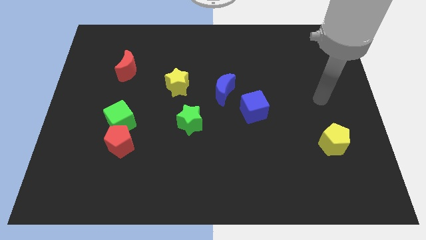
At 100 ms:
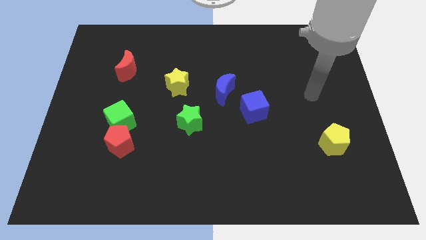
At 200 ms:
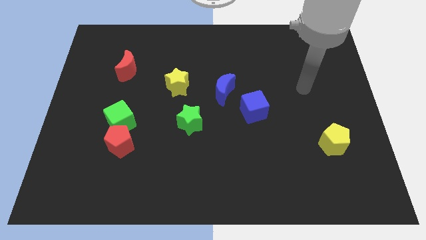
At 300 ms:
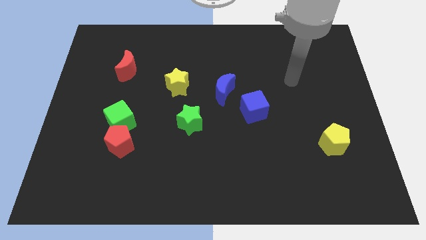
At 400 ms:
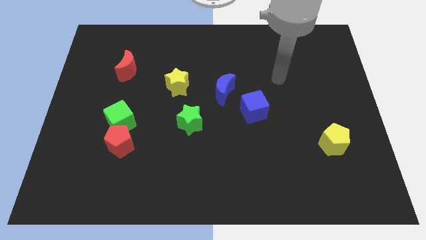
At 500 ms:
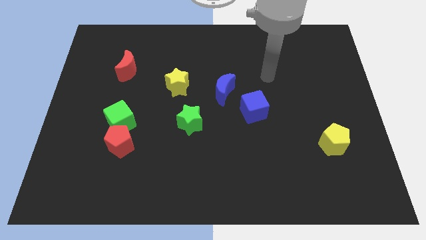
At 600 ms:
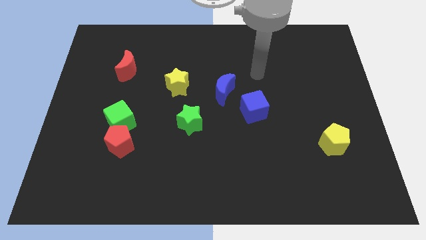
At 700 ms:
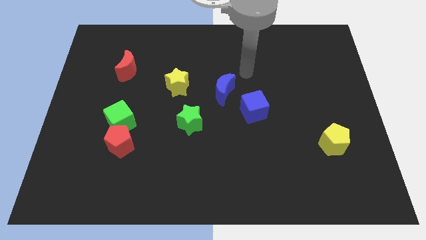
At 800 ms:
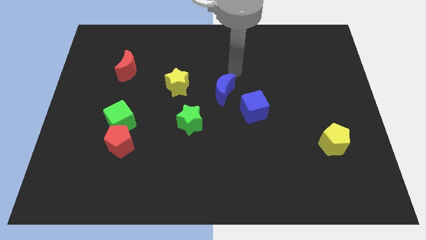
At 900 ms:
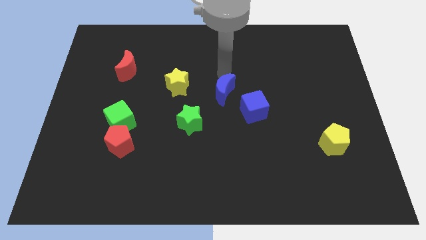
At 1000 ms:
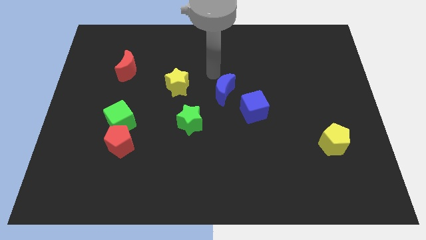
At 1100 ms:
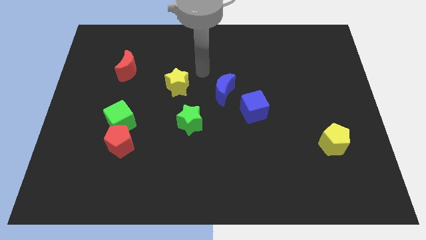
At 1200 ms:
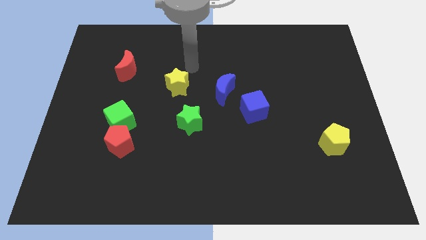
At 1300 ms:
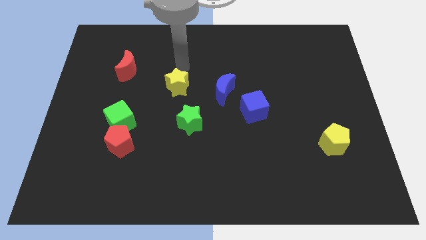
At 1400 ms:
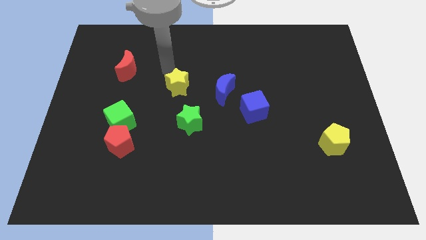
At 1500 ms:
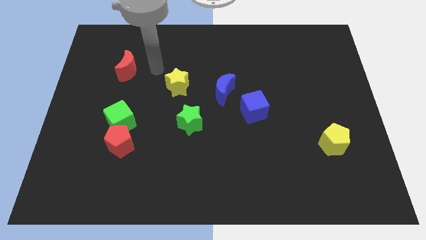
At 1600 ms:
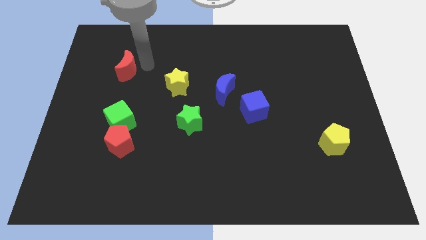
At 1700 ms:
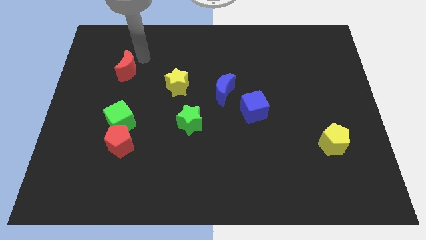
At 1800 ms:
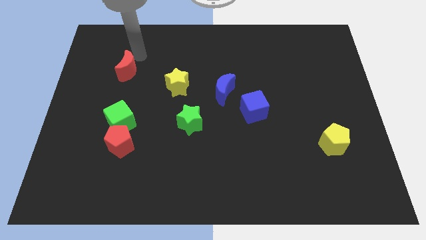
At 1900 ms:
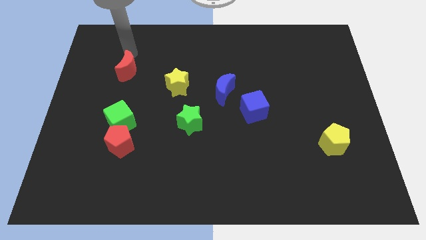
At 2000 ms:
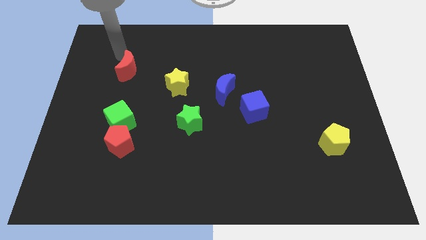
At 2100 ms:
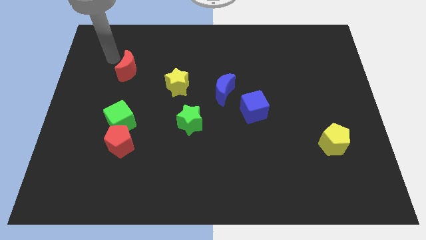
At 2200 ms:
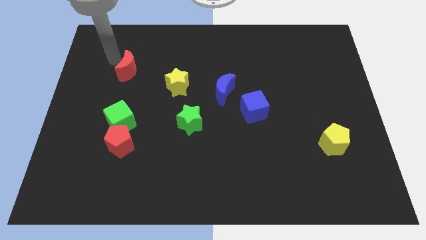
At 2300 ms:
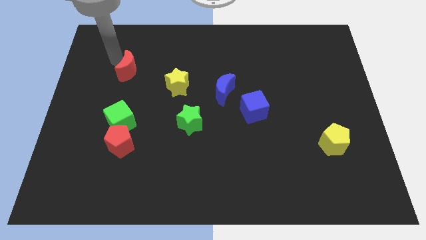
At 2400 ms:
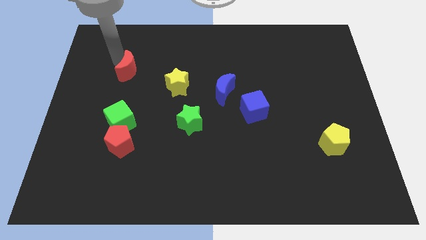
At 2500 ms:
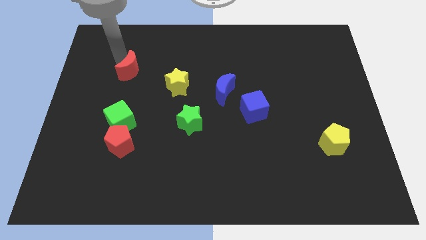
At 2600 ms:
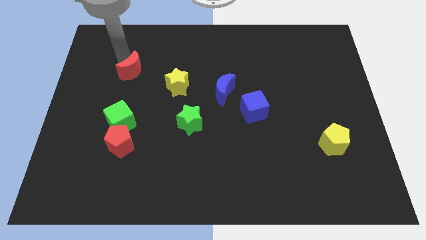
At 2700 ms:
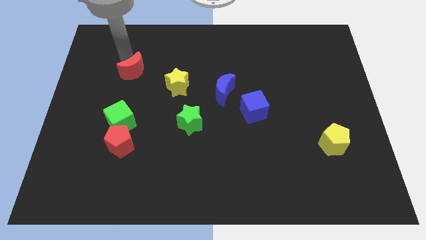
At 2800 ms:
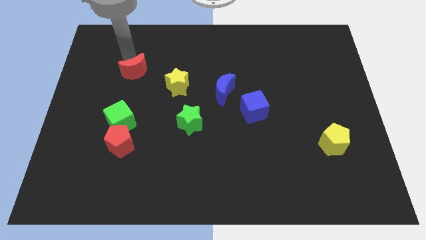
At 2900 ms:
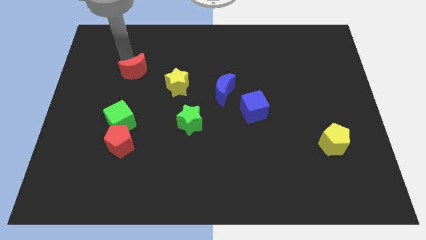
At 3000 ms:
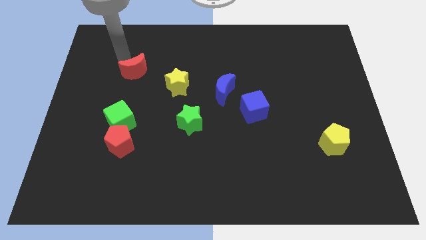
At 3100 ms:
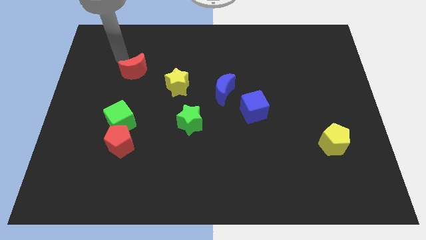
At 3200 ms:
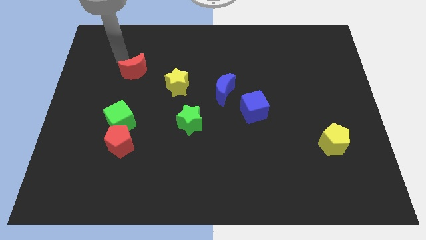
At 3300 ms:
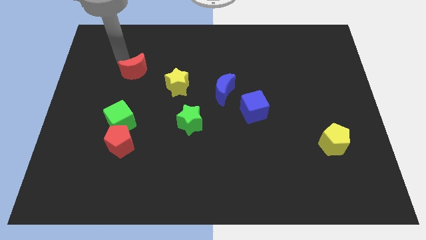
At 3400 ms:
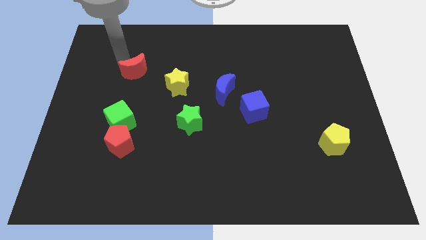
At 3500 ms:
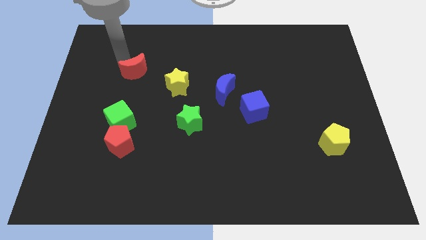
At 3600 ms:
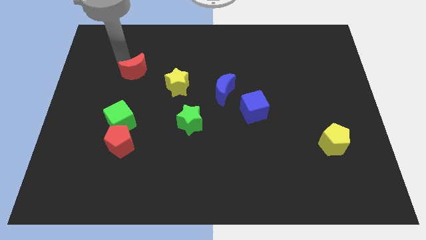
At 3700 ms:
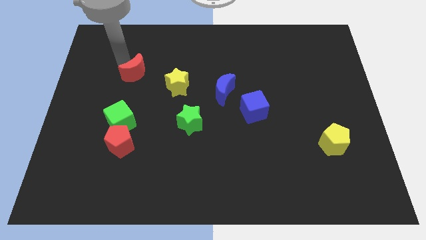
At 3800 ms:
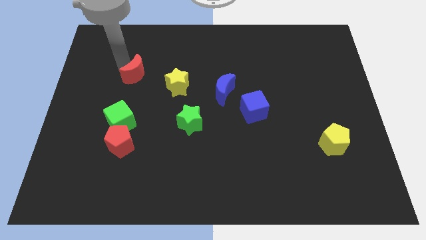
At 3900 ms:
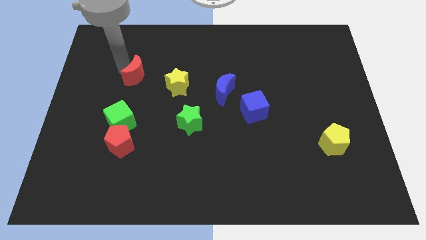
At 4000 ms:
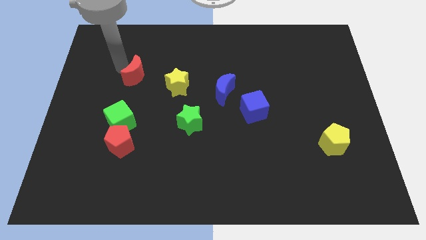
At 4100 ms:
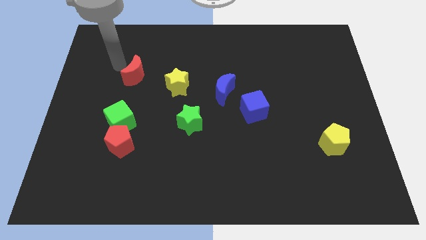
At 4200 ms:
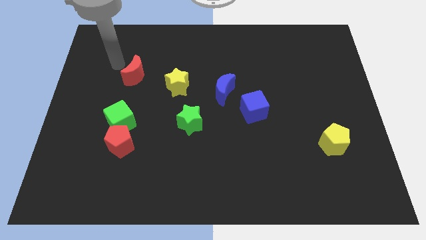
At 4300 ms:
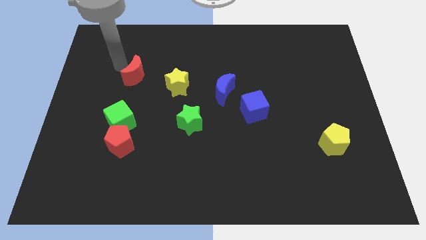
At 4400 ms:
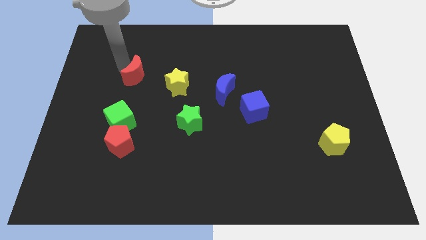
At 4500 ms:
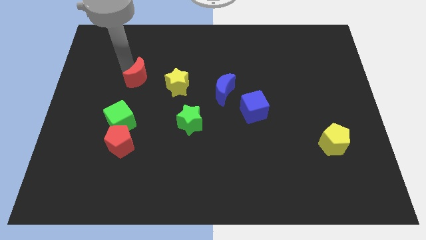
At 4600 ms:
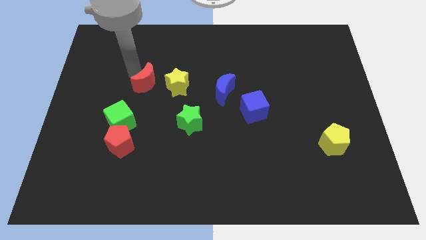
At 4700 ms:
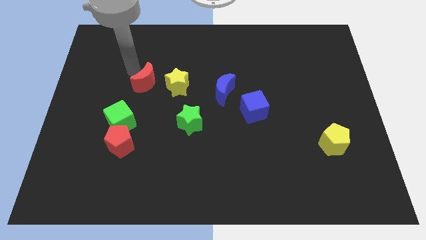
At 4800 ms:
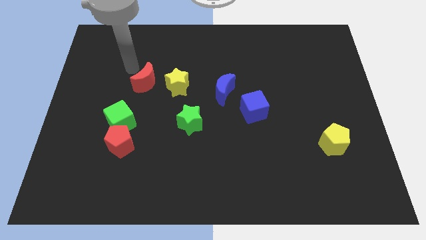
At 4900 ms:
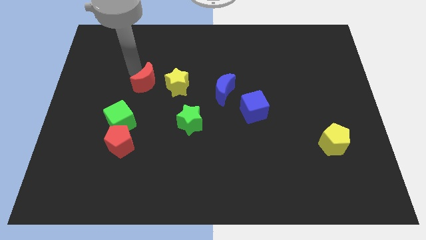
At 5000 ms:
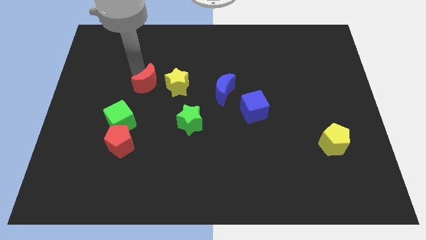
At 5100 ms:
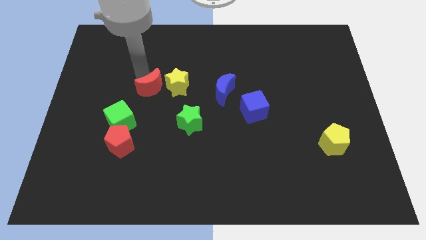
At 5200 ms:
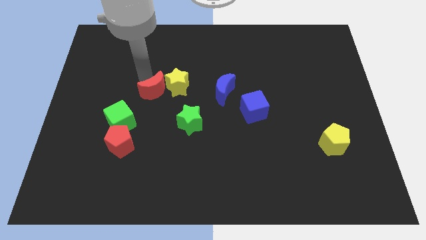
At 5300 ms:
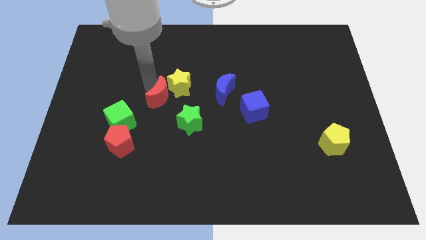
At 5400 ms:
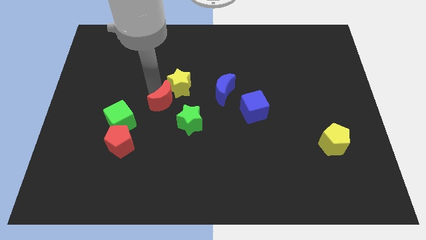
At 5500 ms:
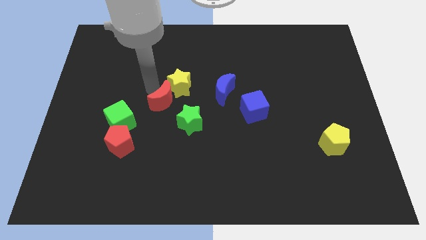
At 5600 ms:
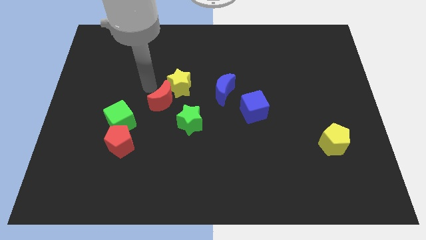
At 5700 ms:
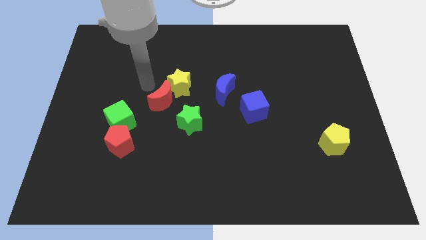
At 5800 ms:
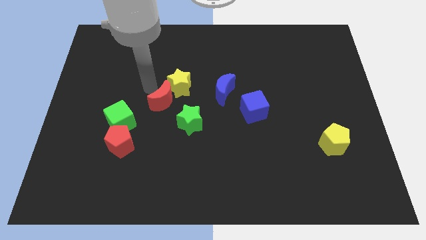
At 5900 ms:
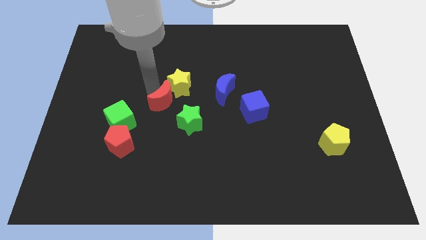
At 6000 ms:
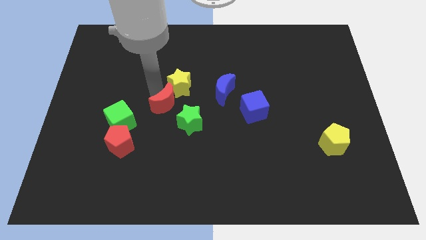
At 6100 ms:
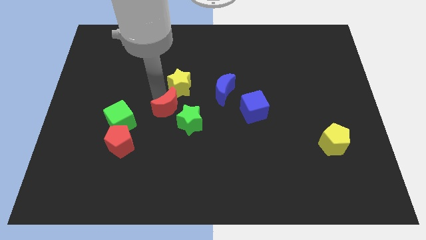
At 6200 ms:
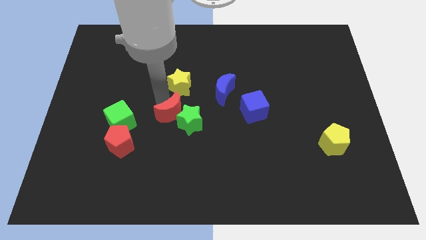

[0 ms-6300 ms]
move the red moon next to the green star

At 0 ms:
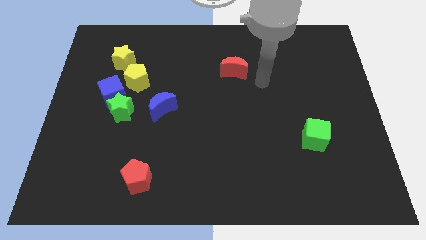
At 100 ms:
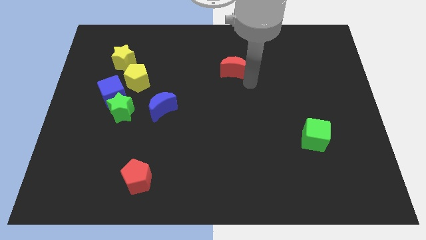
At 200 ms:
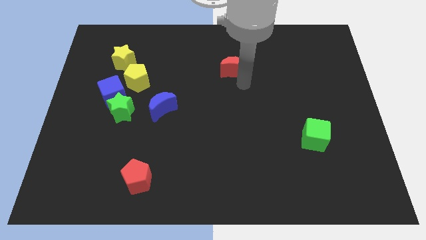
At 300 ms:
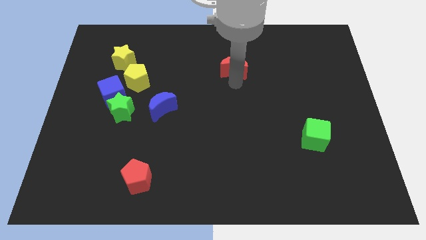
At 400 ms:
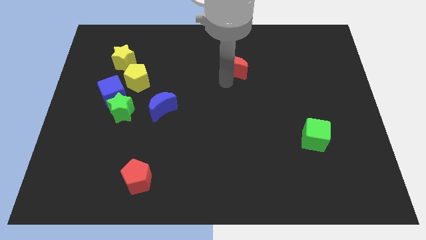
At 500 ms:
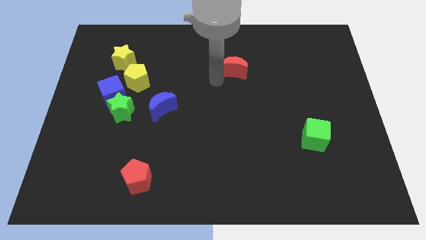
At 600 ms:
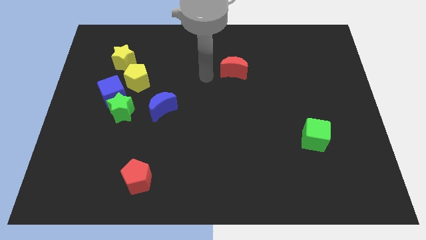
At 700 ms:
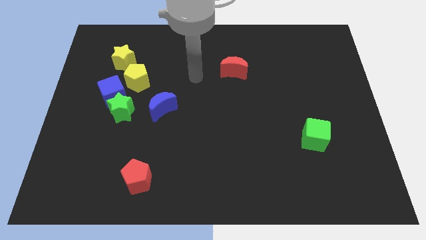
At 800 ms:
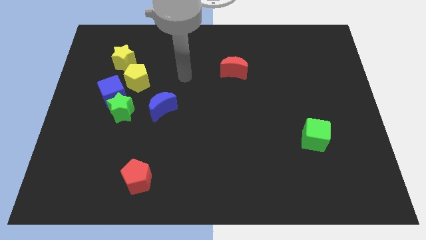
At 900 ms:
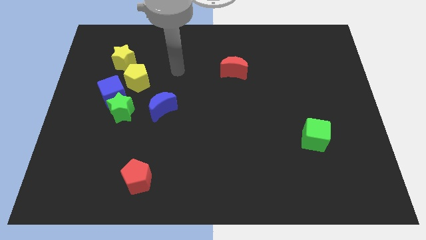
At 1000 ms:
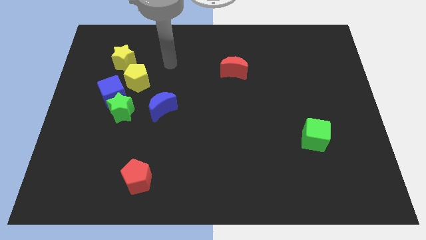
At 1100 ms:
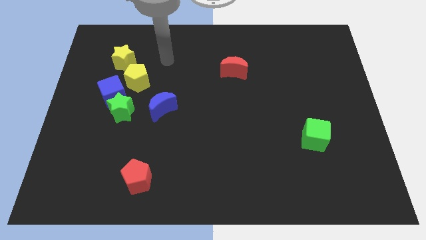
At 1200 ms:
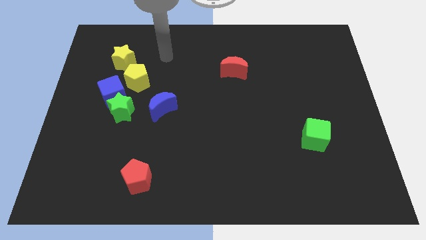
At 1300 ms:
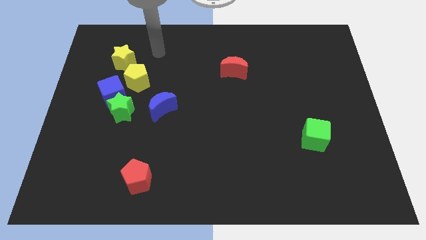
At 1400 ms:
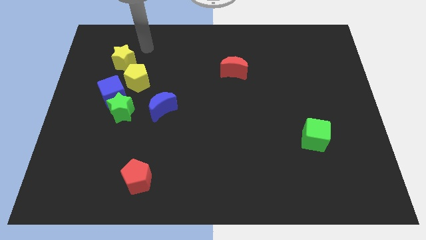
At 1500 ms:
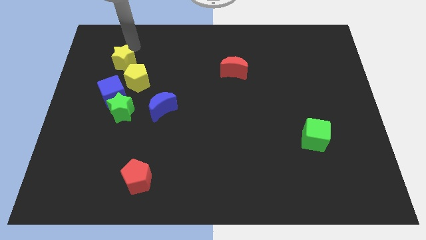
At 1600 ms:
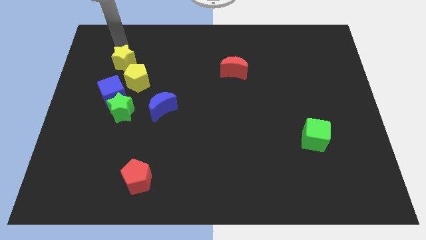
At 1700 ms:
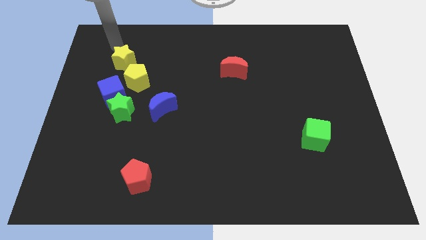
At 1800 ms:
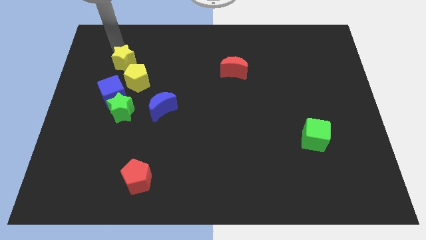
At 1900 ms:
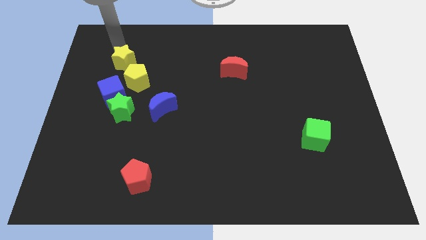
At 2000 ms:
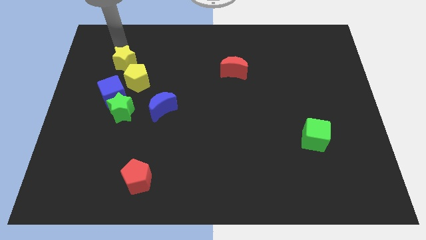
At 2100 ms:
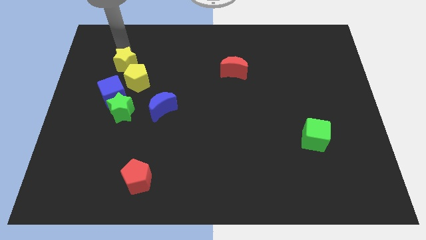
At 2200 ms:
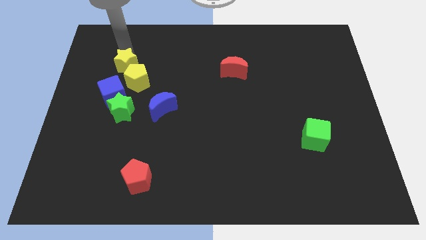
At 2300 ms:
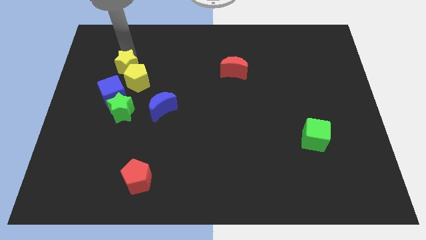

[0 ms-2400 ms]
move the yellow star towards the yellow pentagon
